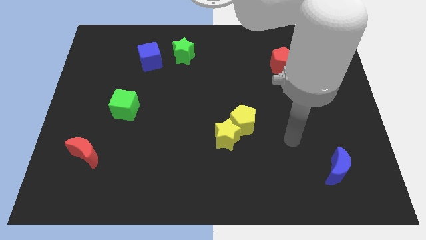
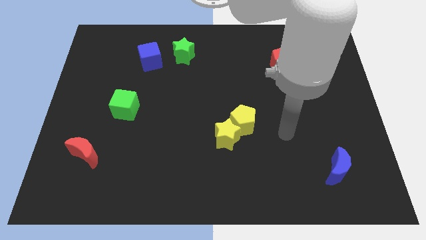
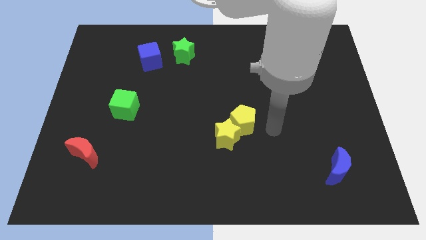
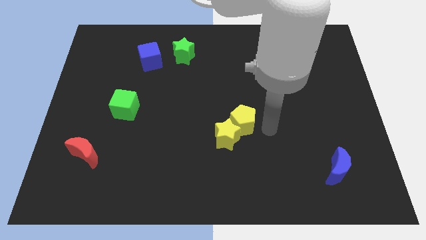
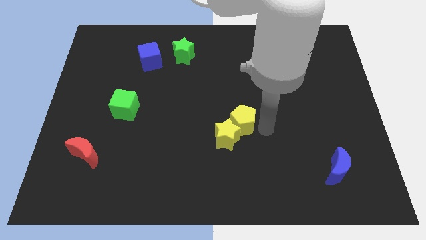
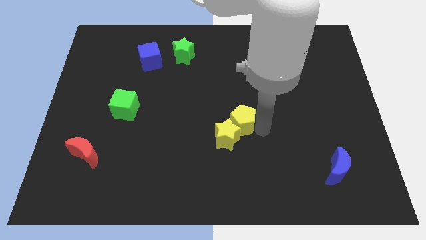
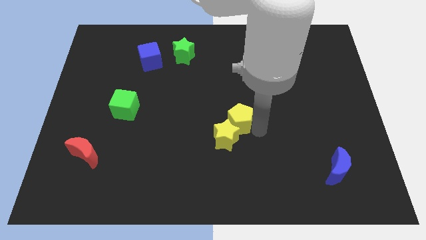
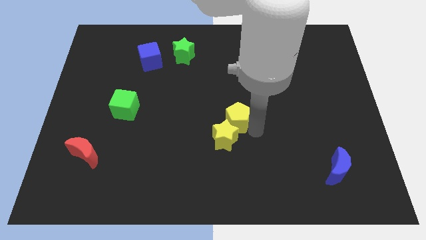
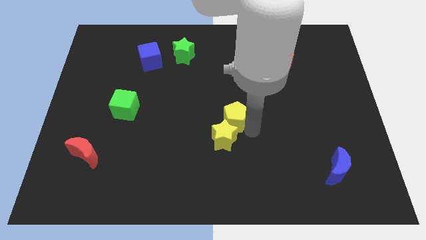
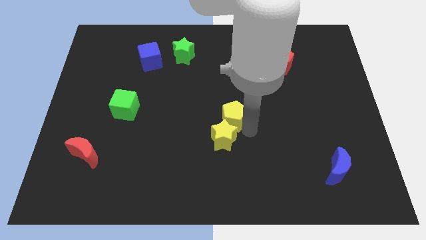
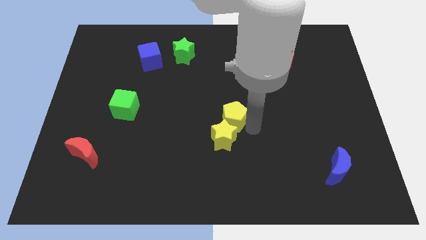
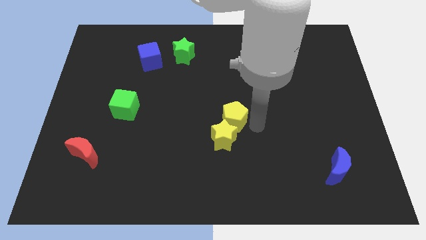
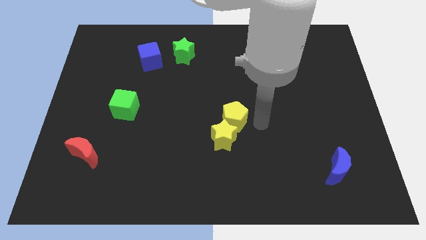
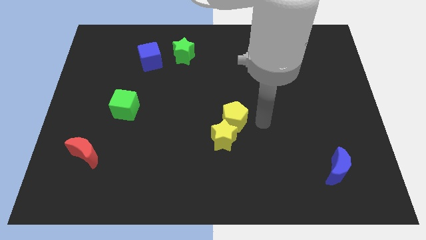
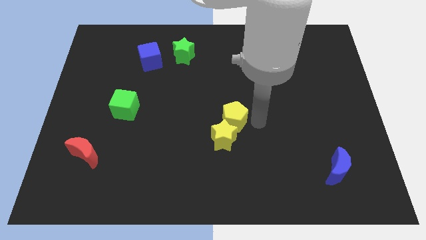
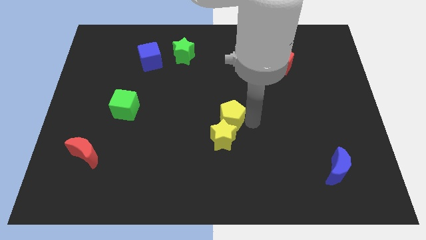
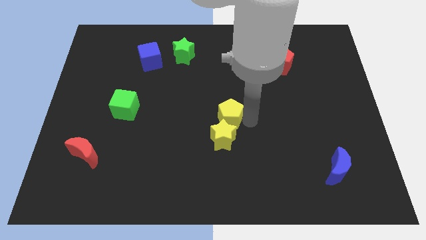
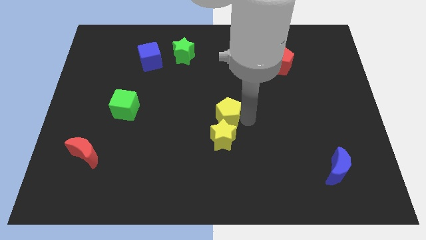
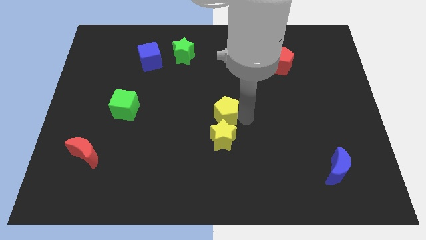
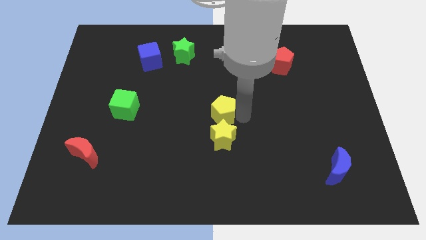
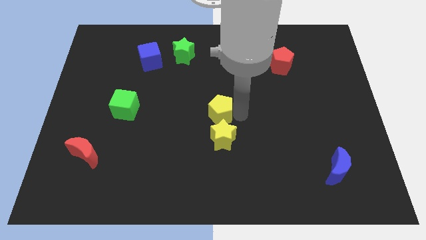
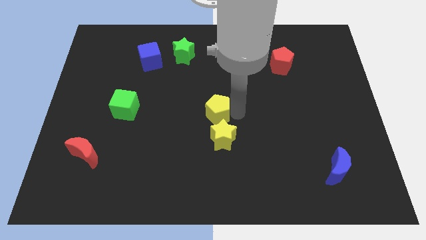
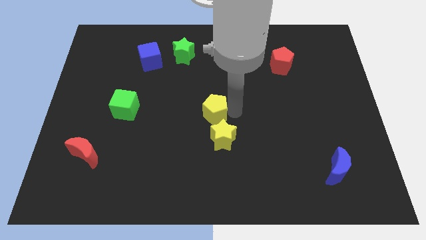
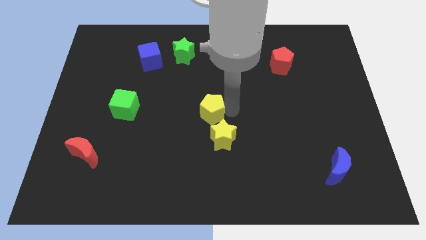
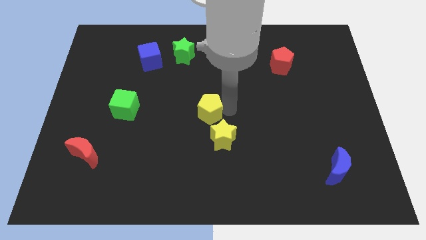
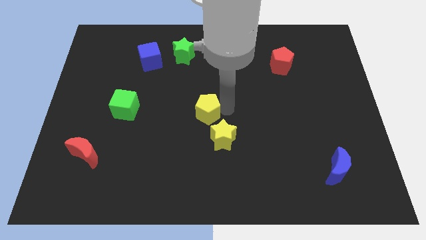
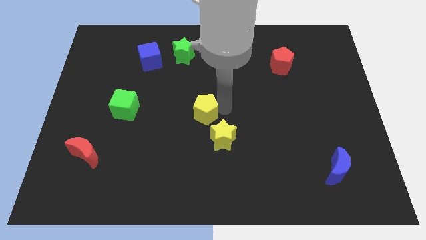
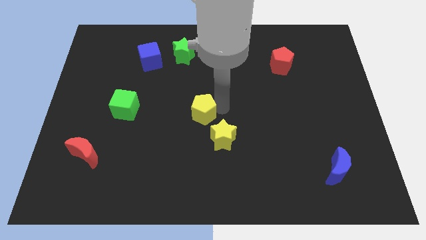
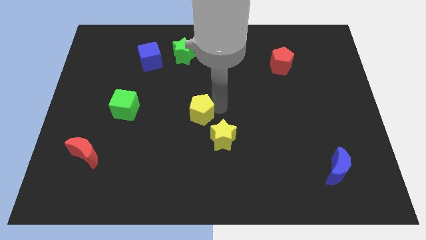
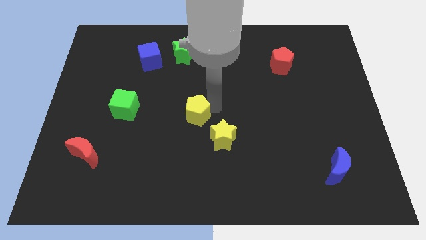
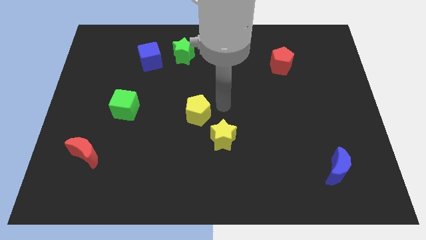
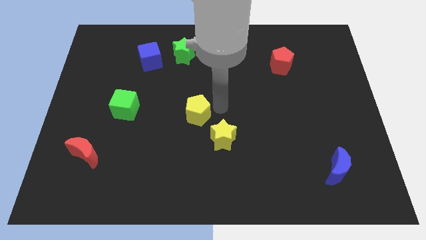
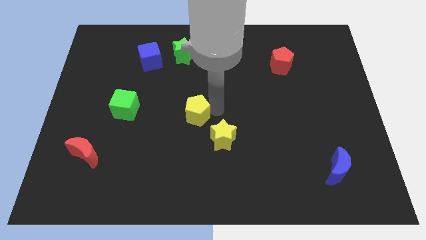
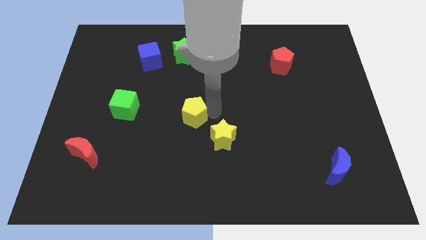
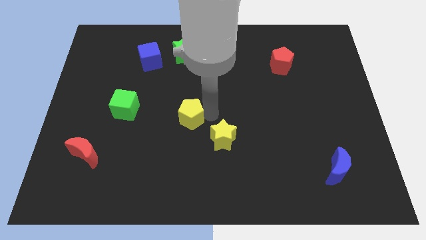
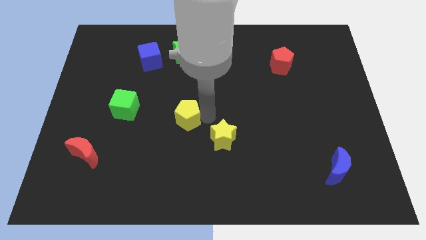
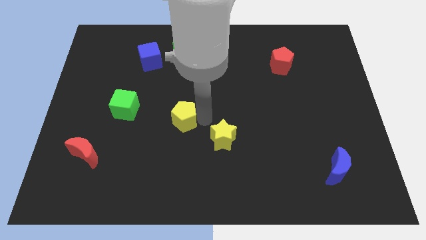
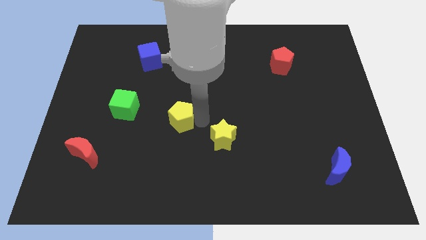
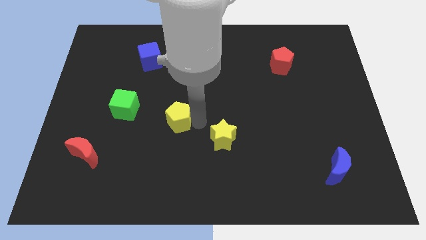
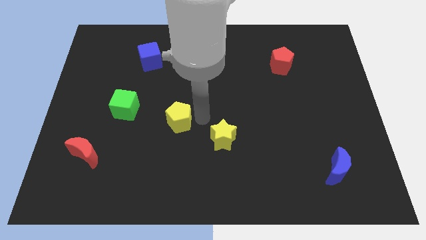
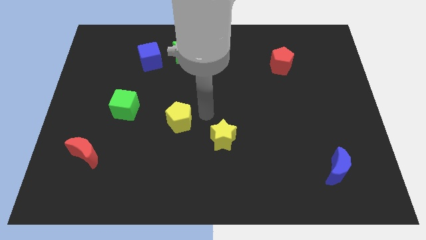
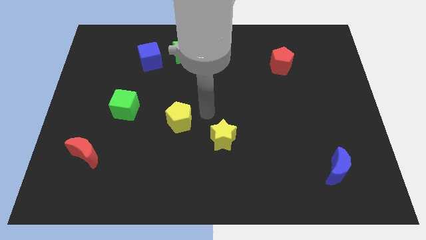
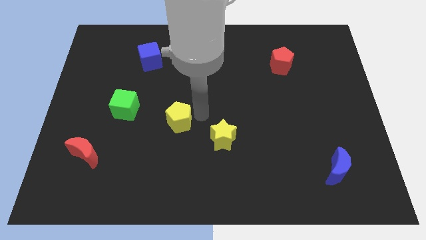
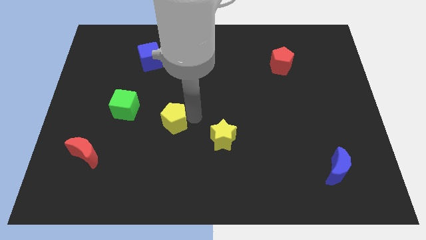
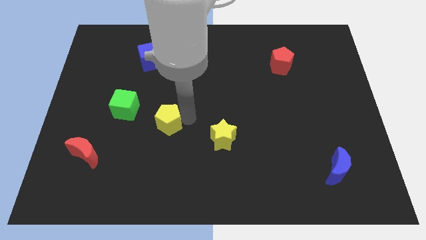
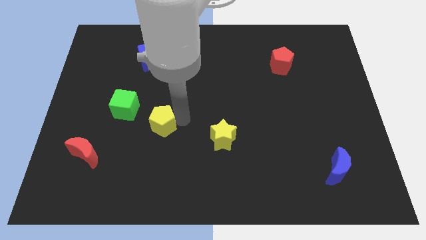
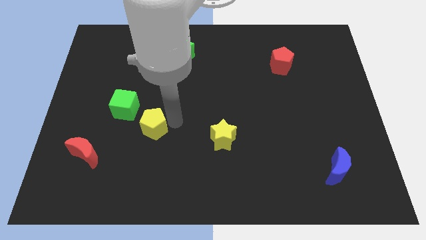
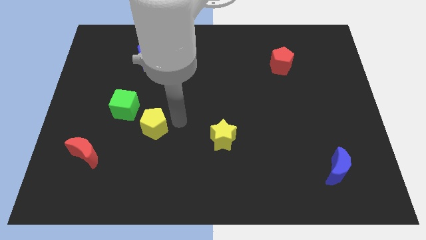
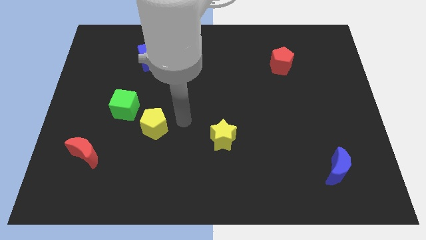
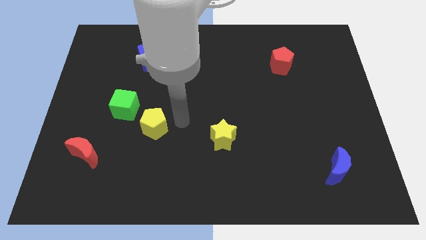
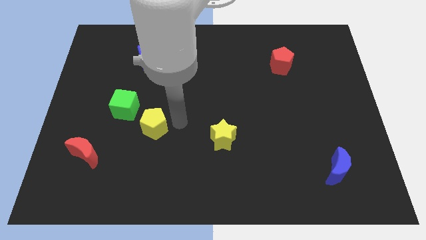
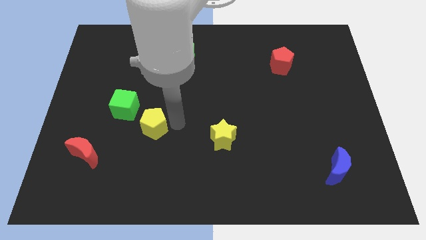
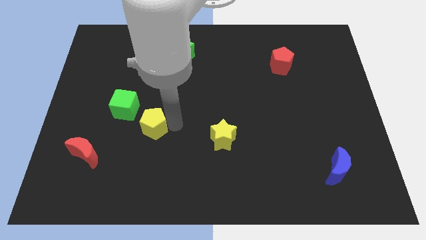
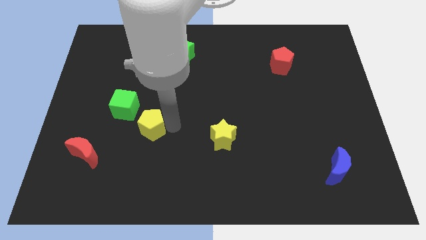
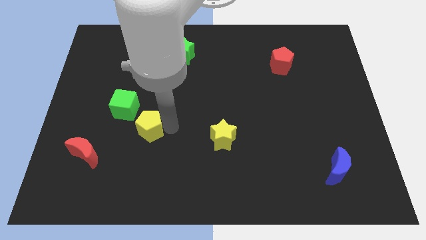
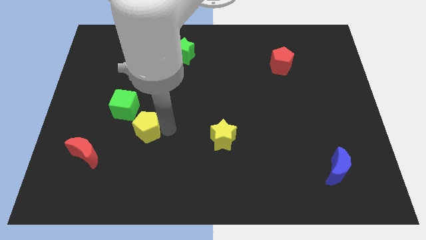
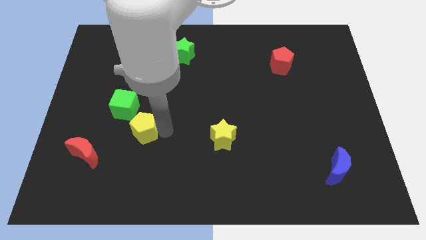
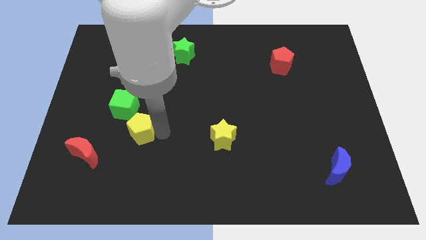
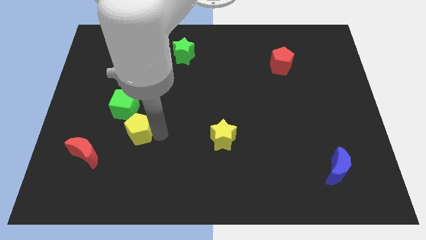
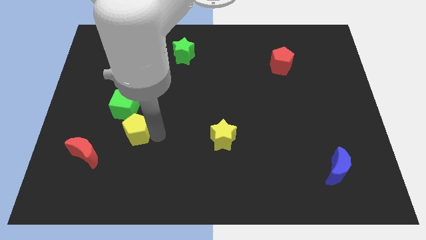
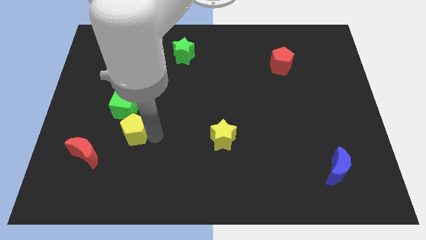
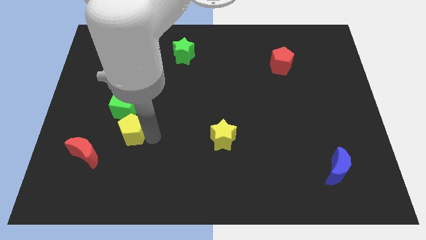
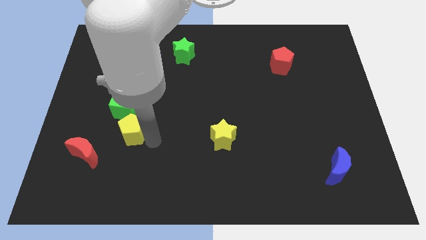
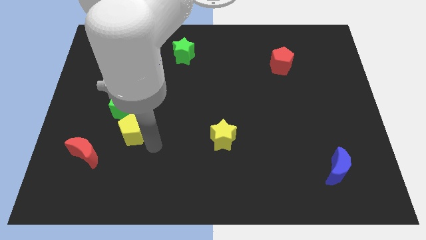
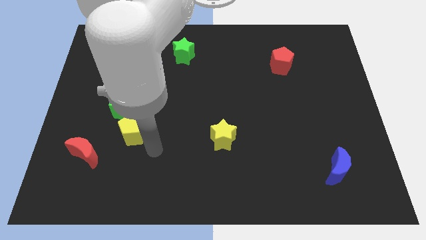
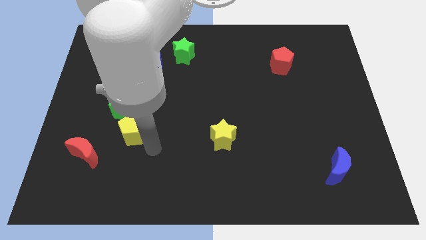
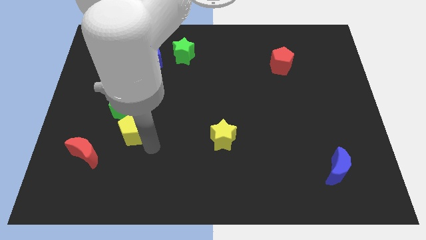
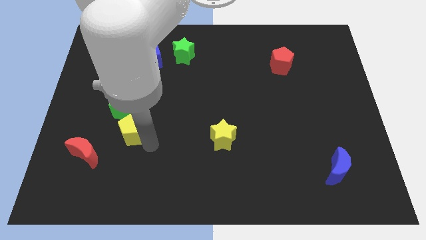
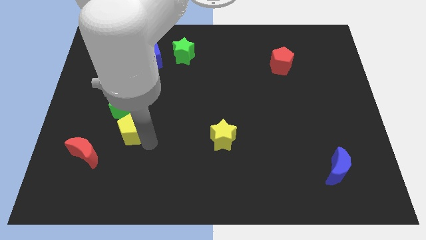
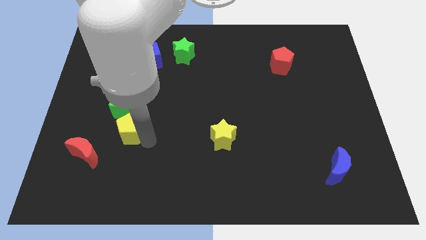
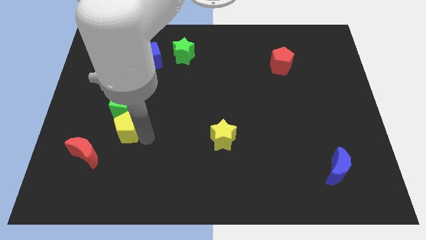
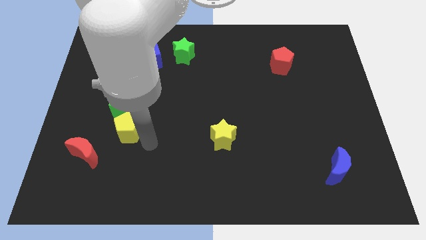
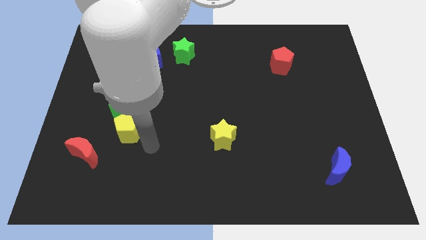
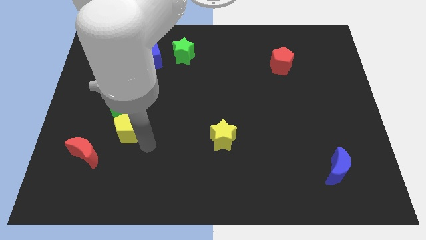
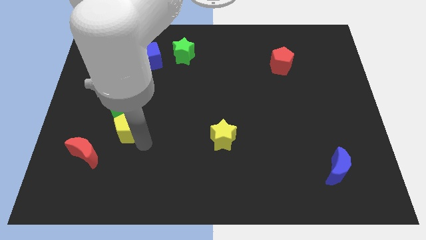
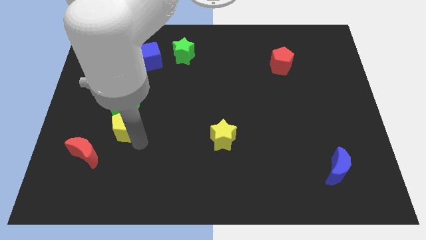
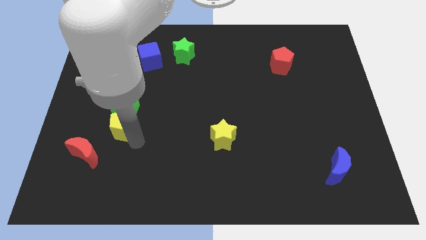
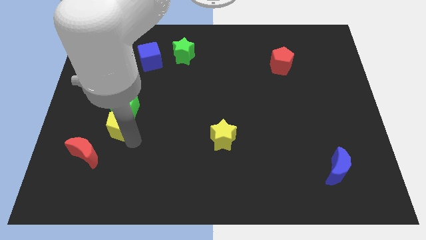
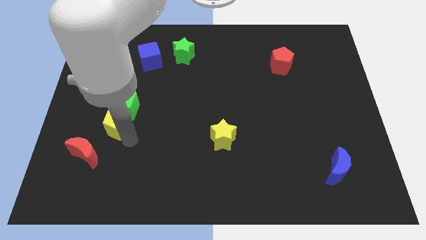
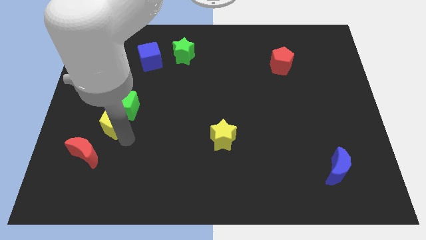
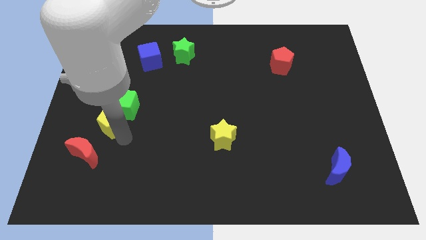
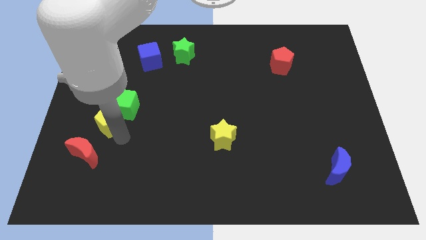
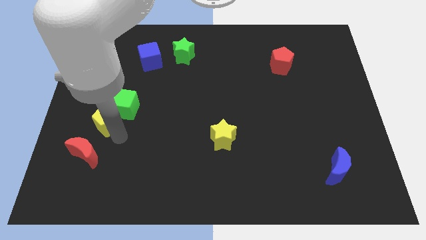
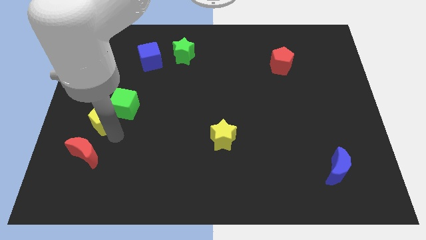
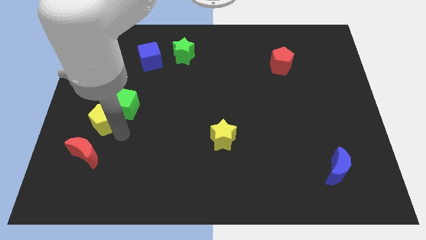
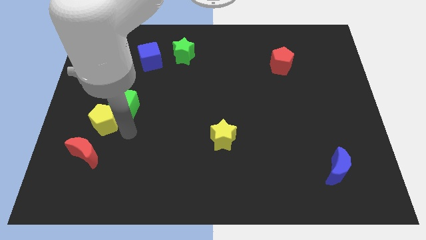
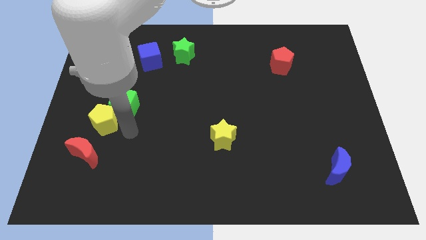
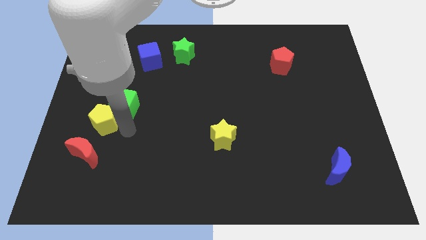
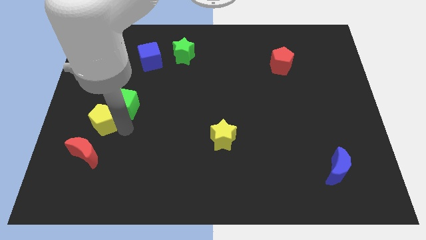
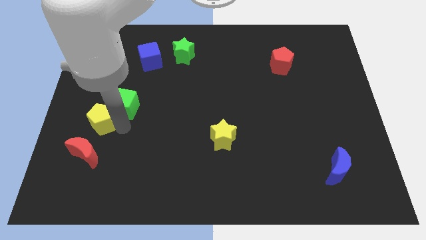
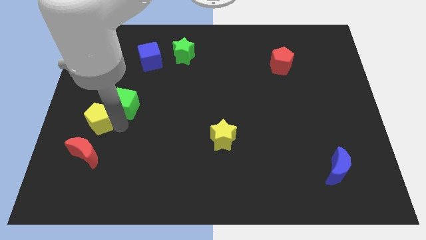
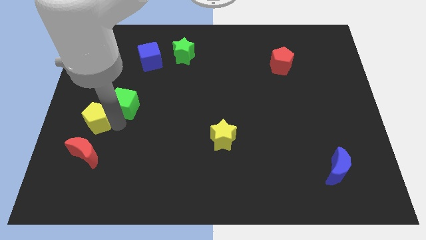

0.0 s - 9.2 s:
slide the yellow pentagon to the left side of the board
